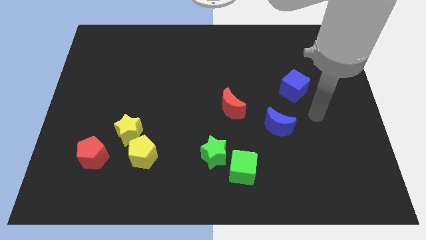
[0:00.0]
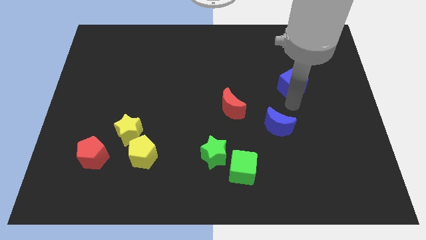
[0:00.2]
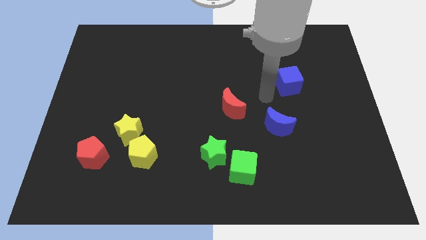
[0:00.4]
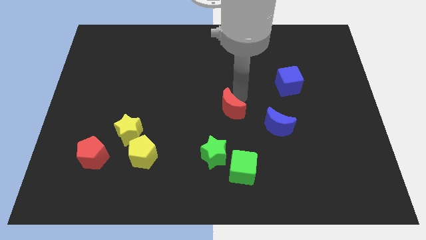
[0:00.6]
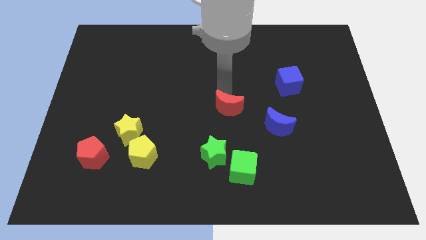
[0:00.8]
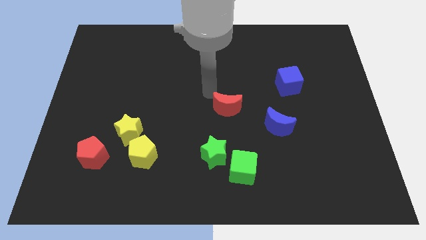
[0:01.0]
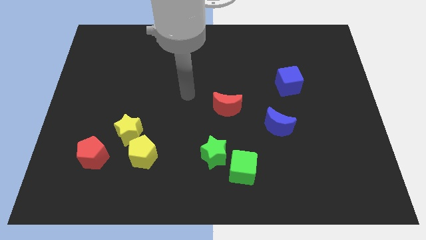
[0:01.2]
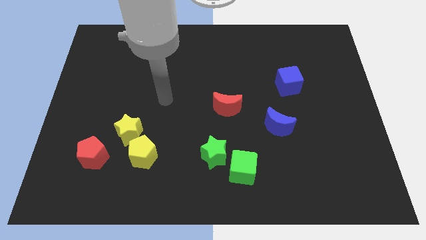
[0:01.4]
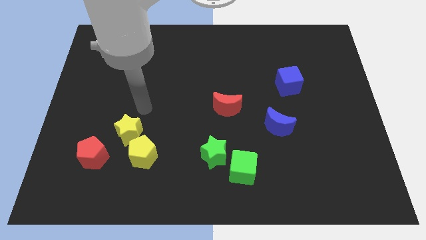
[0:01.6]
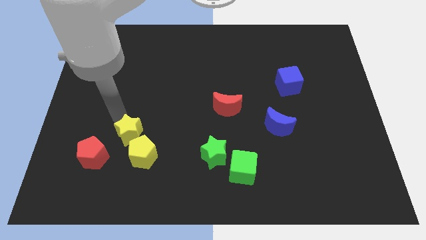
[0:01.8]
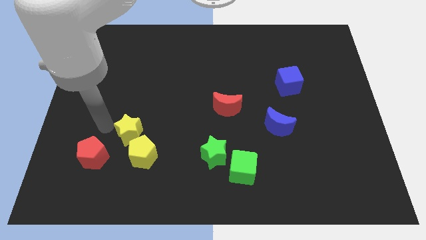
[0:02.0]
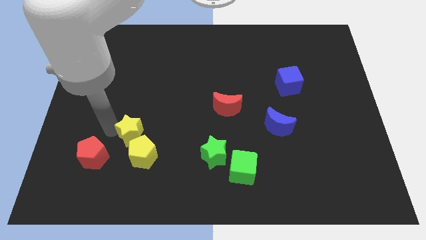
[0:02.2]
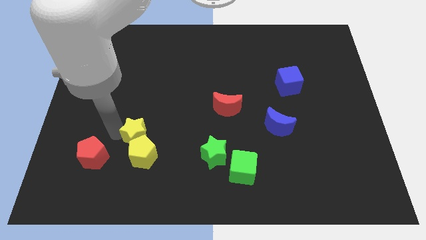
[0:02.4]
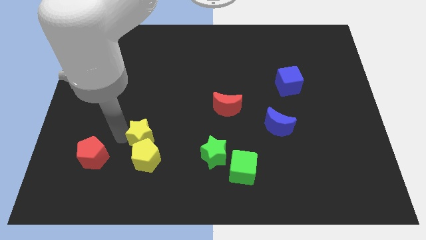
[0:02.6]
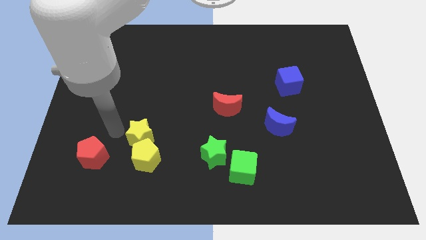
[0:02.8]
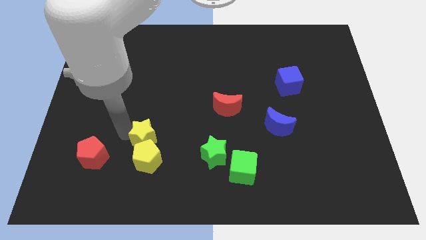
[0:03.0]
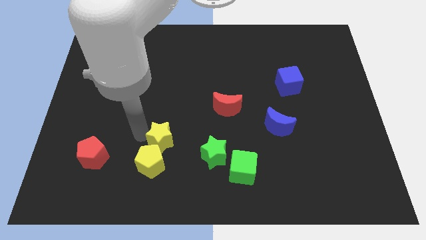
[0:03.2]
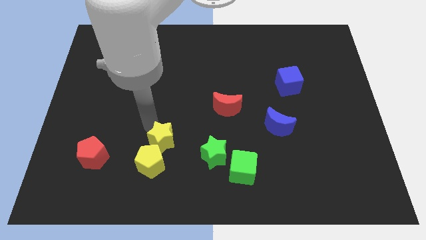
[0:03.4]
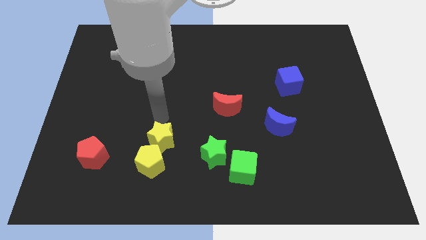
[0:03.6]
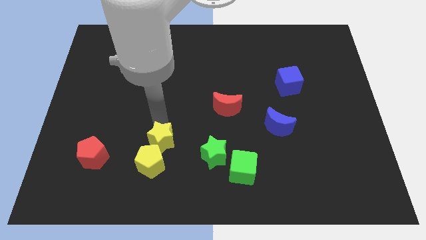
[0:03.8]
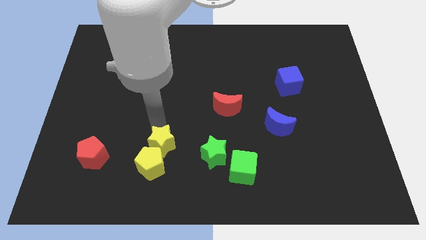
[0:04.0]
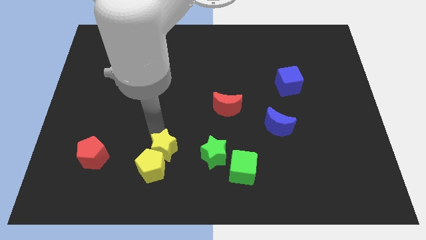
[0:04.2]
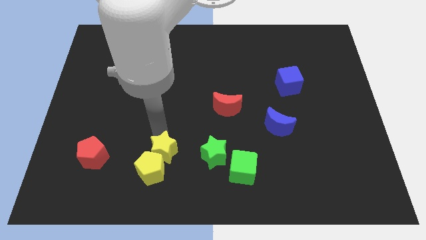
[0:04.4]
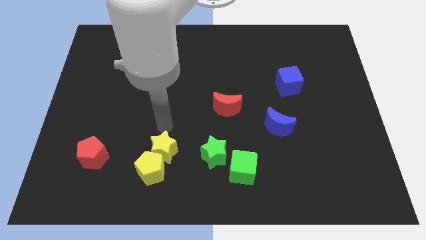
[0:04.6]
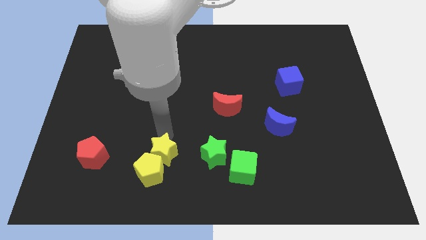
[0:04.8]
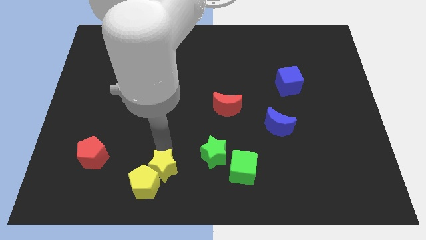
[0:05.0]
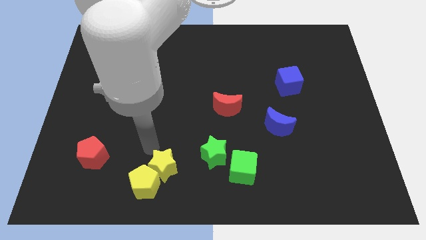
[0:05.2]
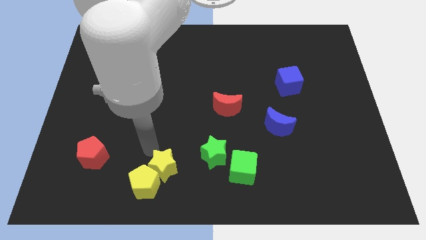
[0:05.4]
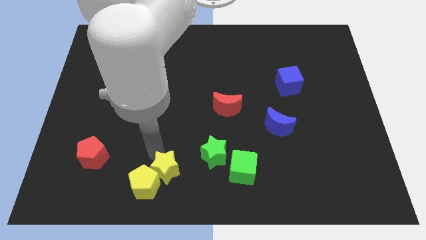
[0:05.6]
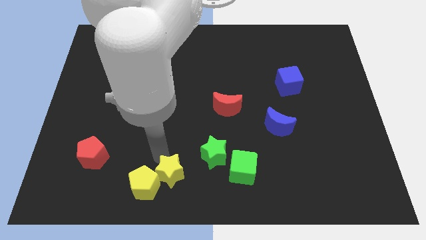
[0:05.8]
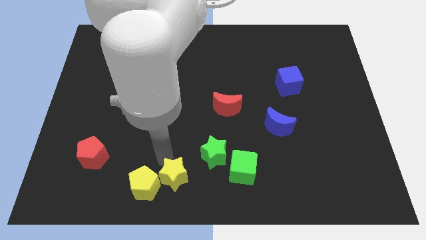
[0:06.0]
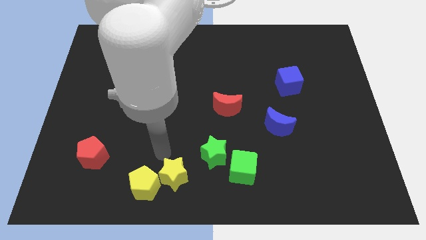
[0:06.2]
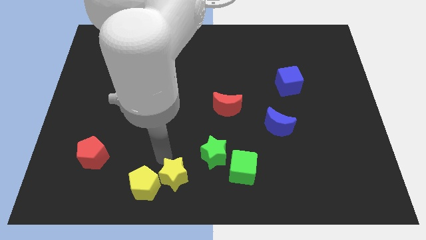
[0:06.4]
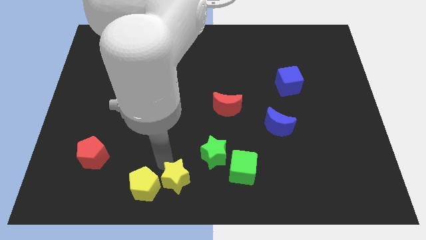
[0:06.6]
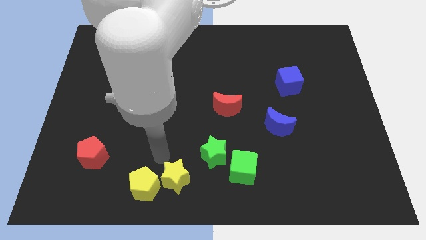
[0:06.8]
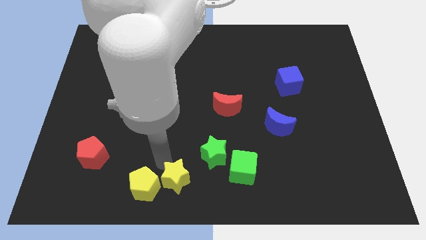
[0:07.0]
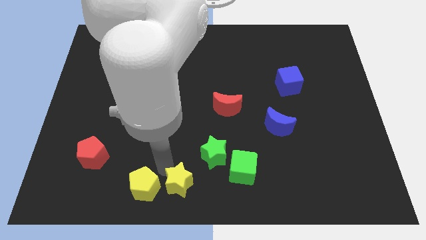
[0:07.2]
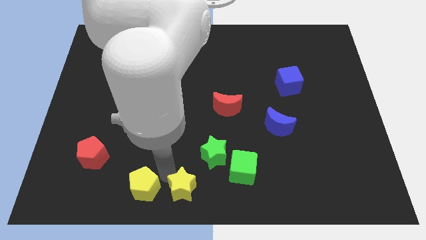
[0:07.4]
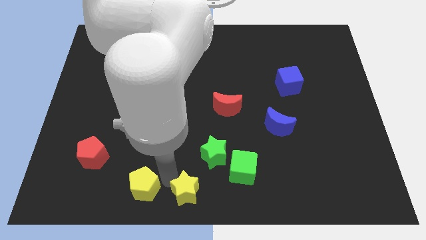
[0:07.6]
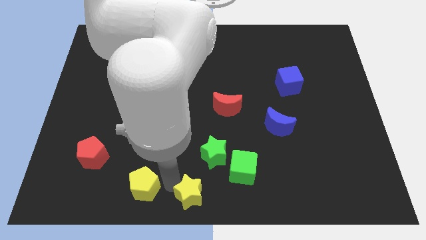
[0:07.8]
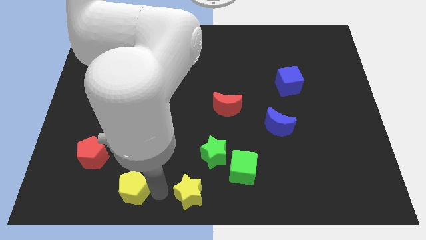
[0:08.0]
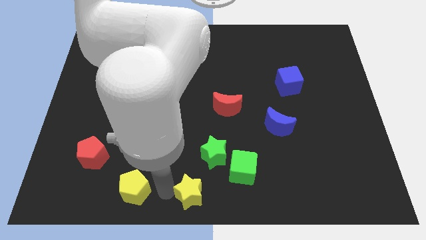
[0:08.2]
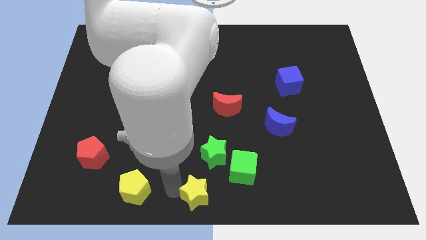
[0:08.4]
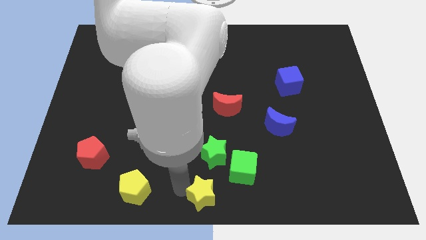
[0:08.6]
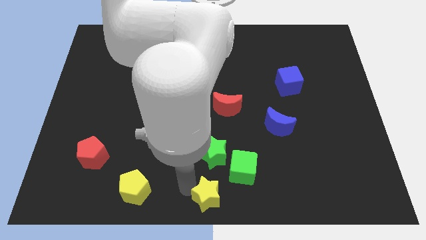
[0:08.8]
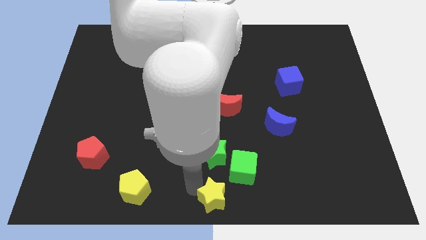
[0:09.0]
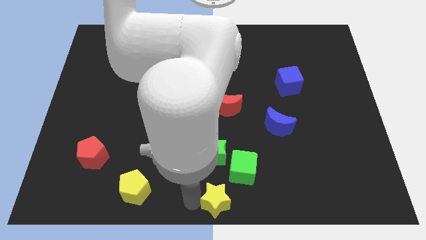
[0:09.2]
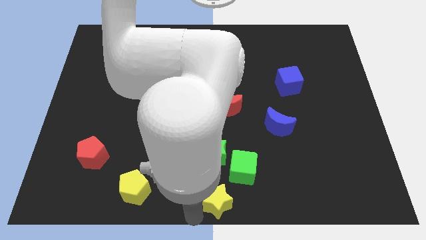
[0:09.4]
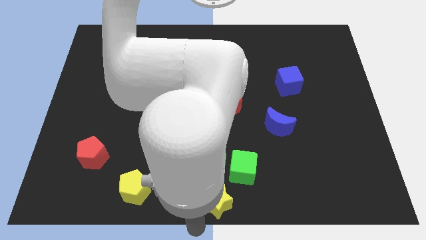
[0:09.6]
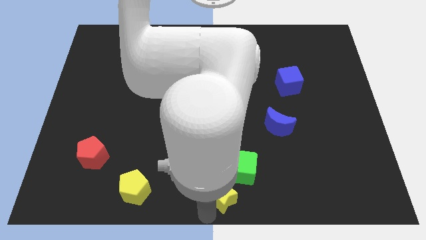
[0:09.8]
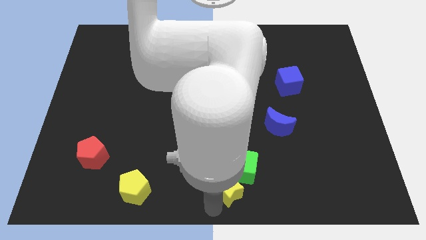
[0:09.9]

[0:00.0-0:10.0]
move the yellow star diagonally down and to the right of the green star

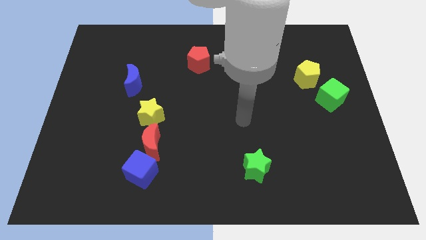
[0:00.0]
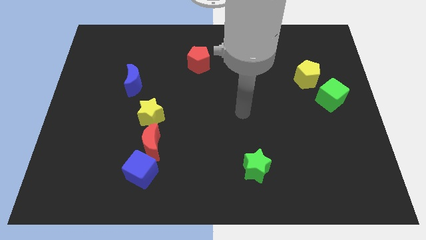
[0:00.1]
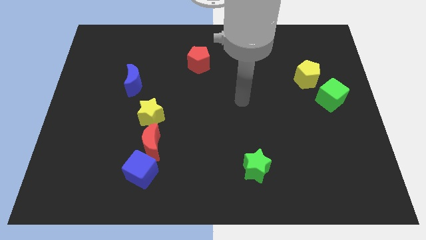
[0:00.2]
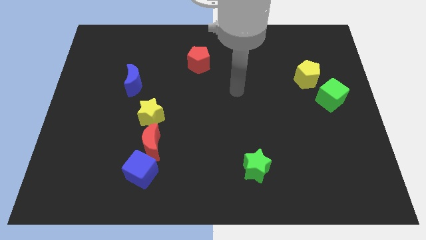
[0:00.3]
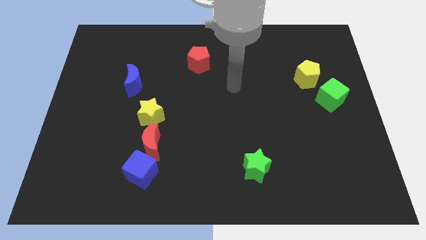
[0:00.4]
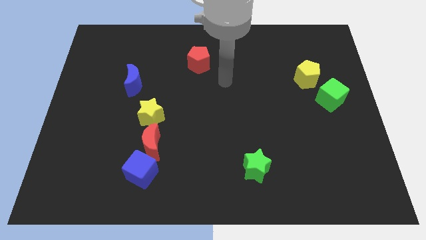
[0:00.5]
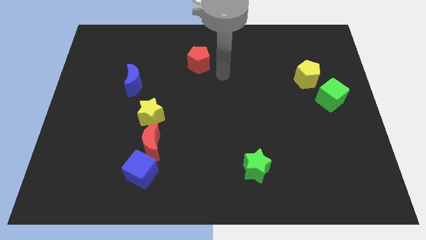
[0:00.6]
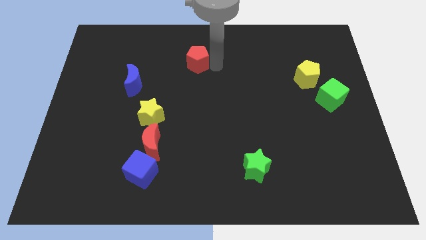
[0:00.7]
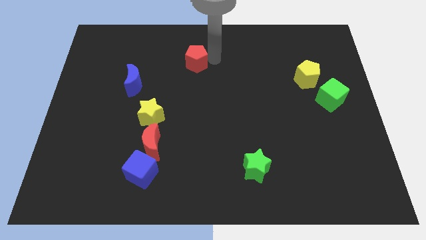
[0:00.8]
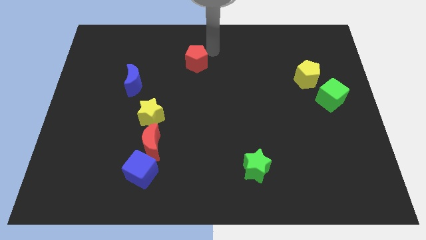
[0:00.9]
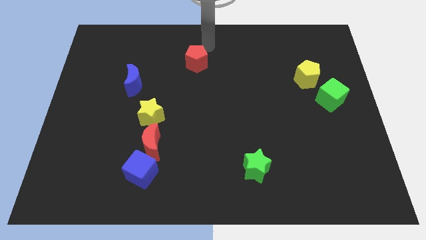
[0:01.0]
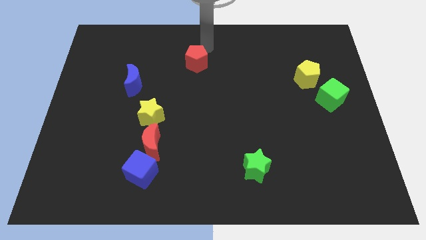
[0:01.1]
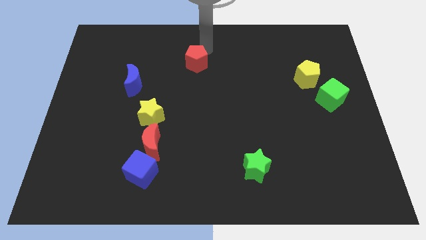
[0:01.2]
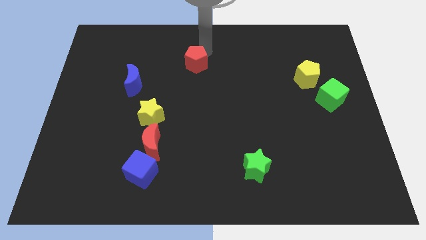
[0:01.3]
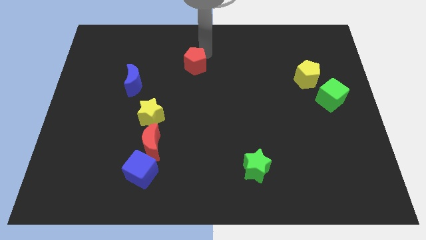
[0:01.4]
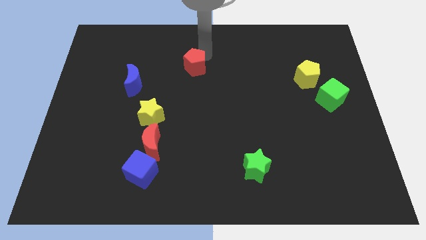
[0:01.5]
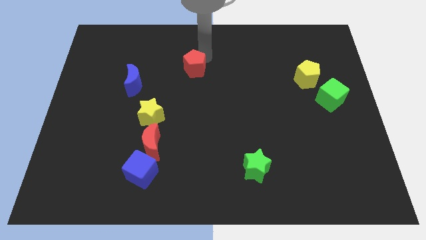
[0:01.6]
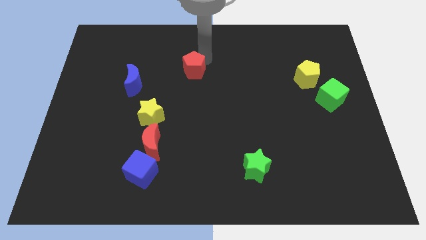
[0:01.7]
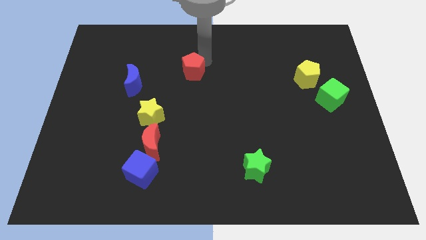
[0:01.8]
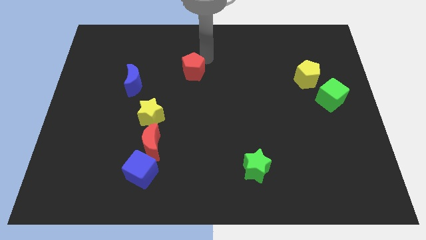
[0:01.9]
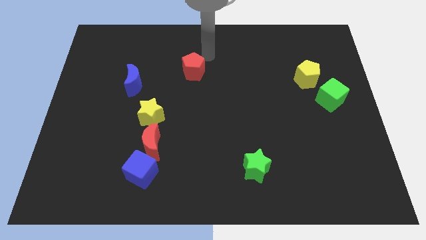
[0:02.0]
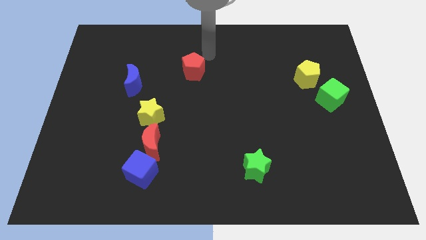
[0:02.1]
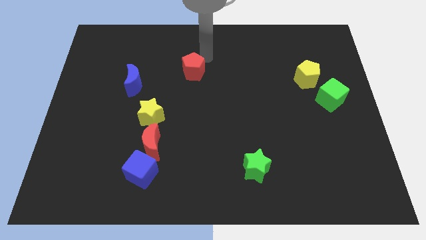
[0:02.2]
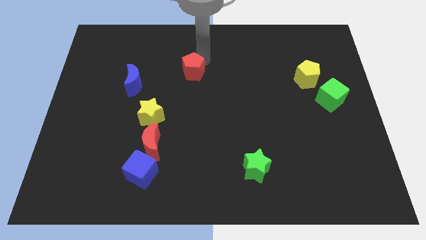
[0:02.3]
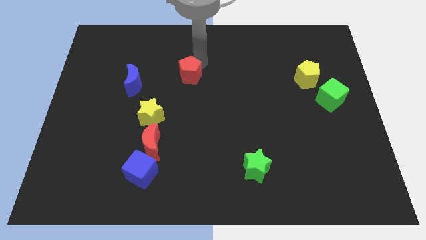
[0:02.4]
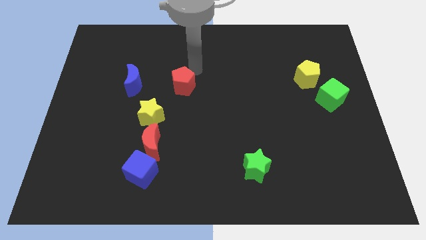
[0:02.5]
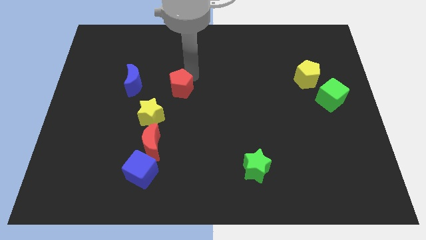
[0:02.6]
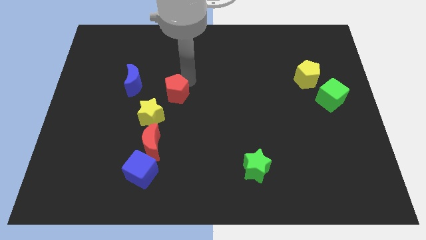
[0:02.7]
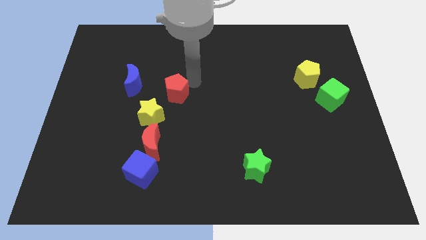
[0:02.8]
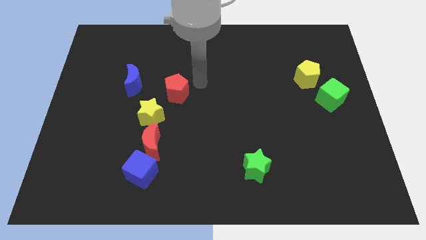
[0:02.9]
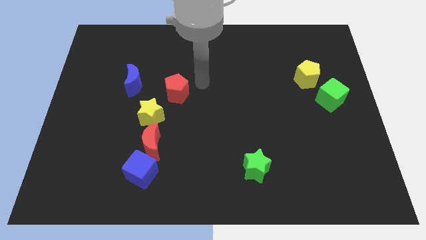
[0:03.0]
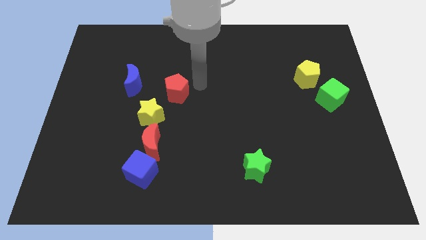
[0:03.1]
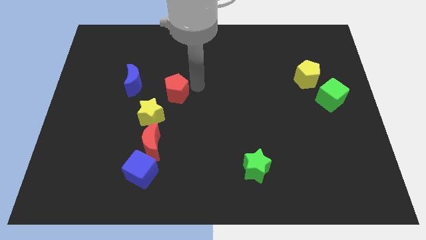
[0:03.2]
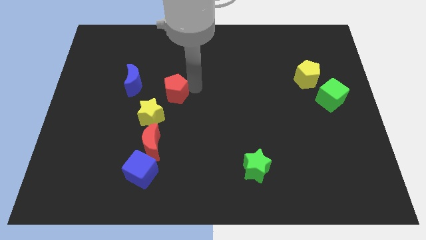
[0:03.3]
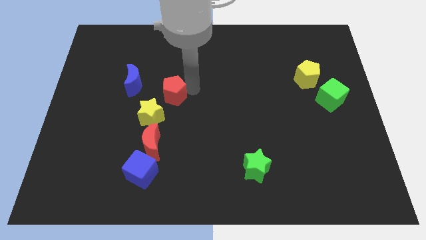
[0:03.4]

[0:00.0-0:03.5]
move the red pentagon diagonally down and to the right of the blue moon
